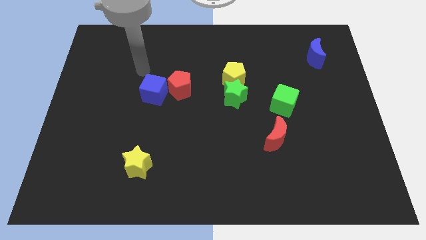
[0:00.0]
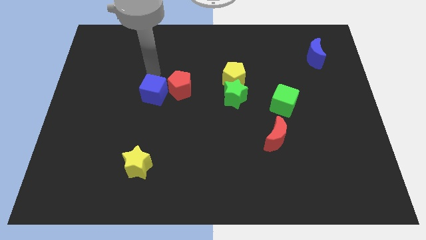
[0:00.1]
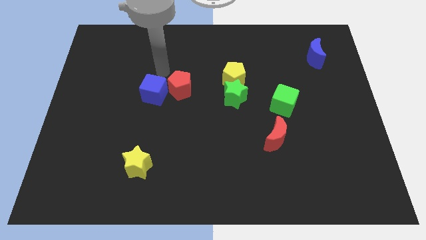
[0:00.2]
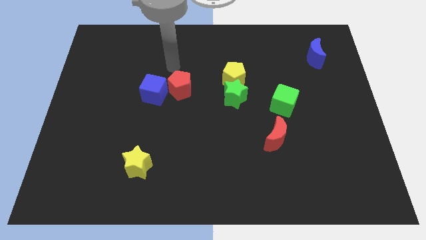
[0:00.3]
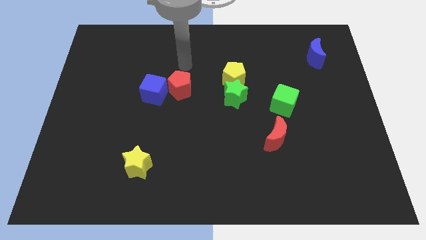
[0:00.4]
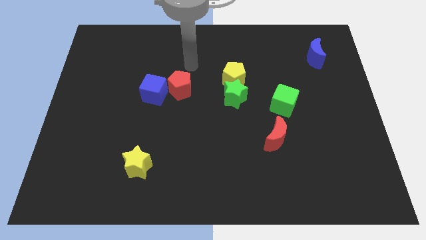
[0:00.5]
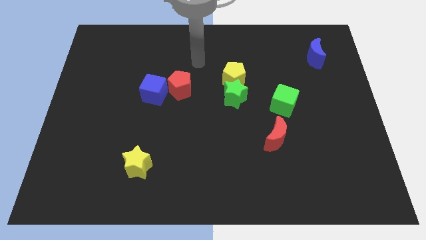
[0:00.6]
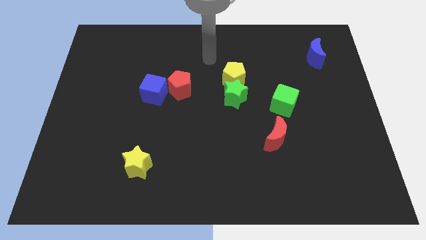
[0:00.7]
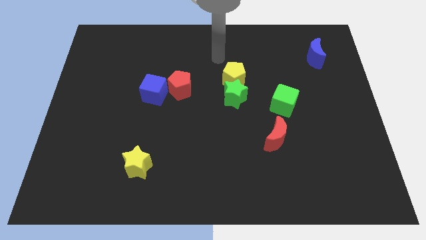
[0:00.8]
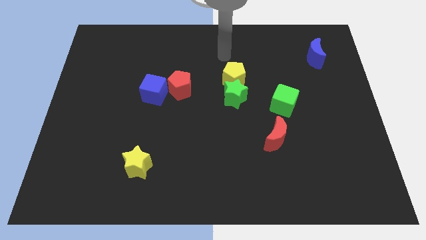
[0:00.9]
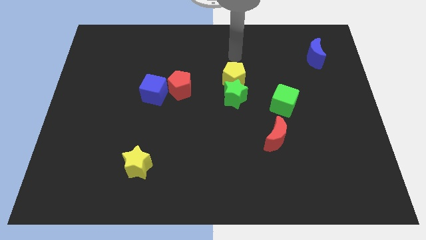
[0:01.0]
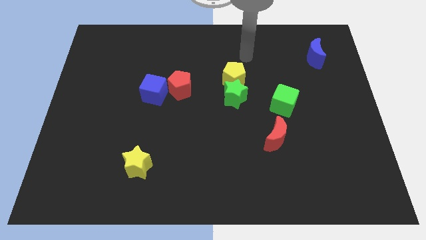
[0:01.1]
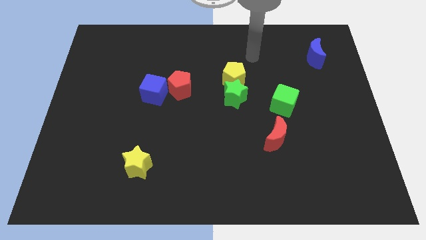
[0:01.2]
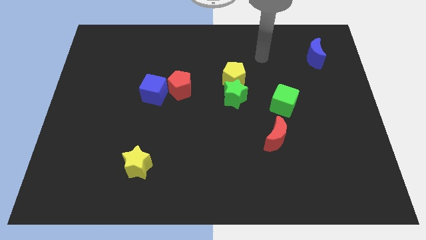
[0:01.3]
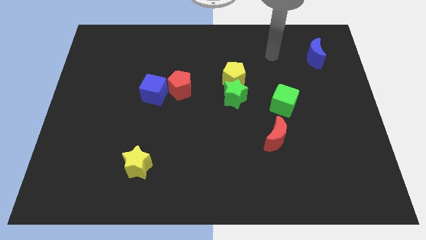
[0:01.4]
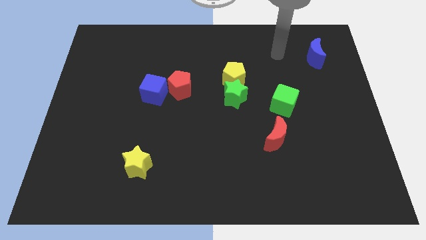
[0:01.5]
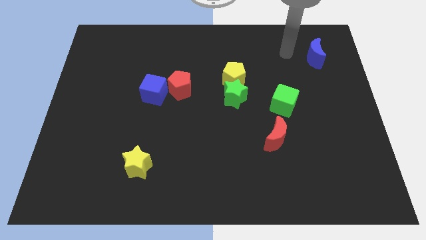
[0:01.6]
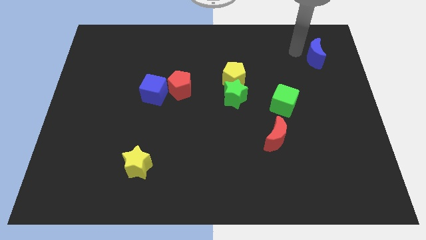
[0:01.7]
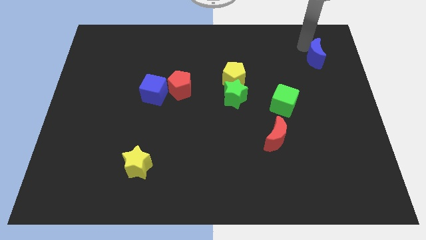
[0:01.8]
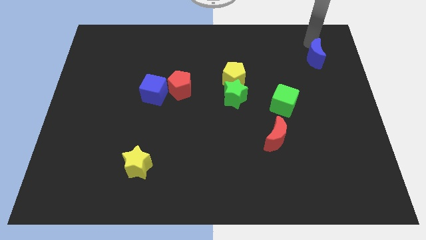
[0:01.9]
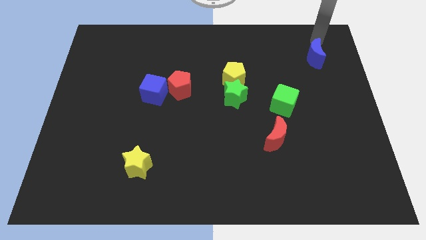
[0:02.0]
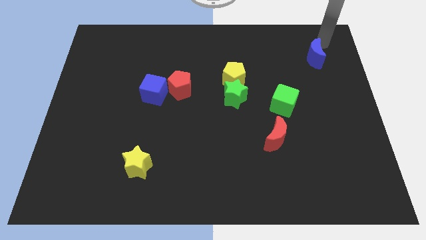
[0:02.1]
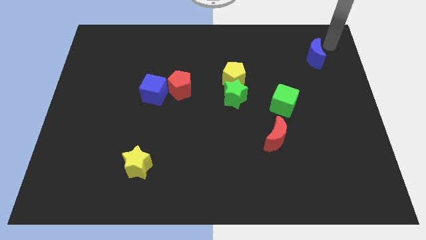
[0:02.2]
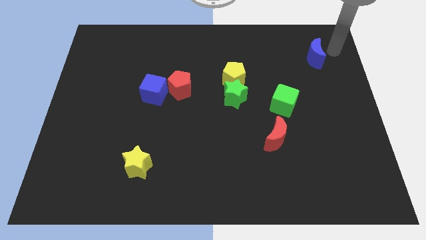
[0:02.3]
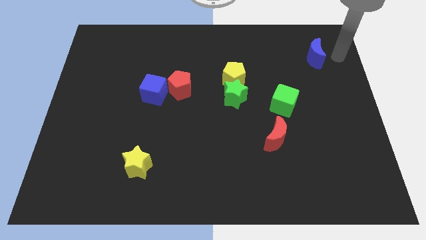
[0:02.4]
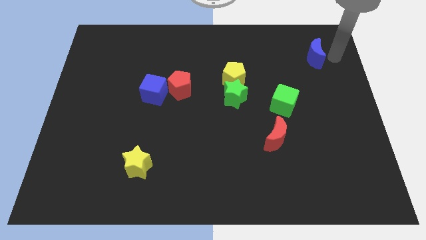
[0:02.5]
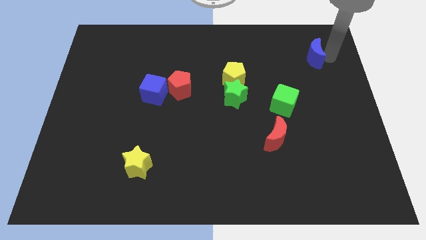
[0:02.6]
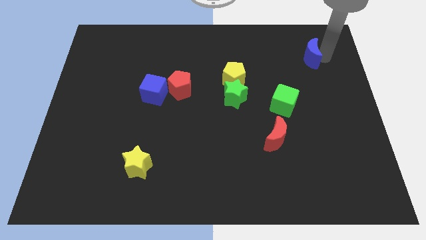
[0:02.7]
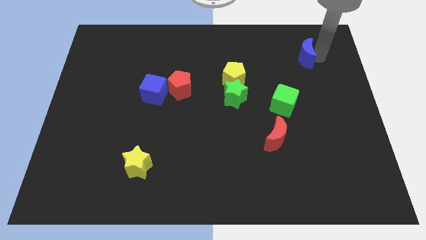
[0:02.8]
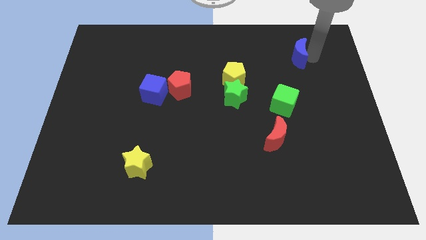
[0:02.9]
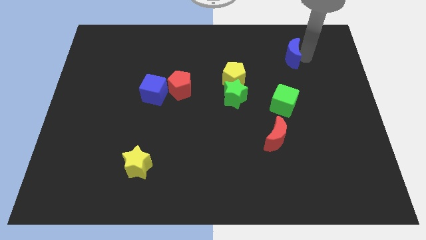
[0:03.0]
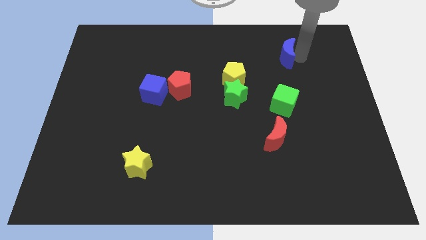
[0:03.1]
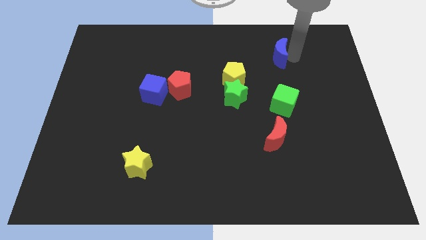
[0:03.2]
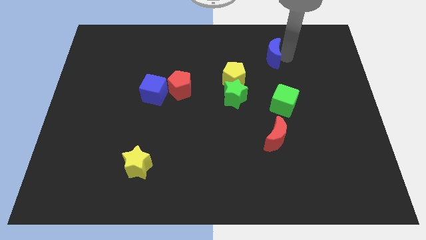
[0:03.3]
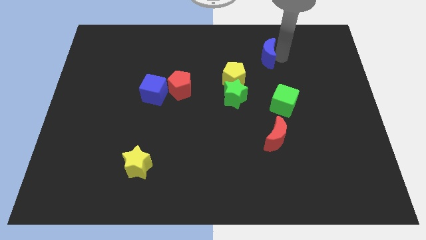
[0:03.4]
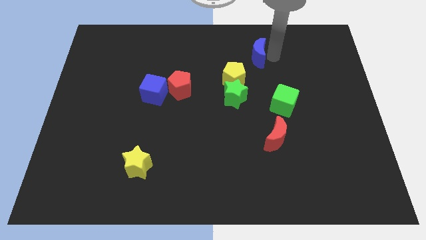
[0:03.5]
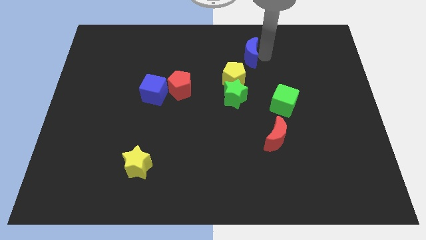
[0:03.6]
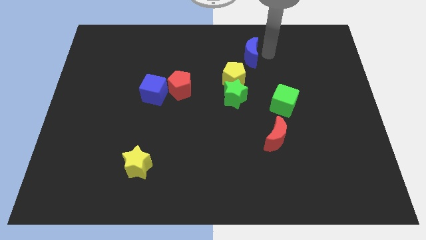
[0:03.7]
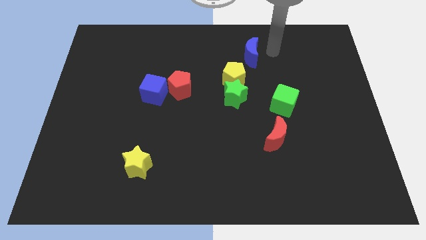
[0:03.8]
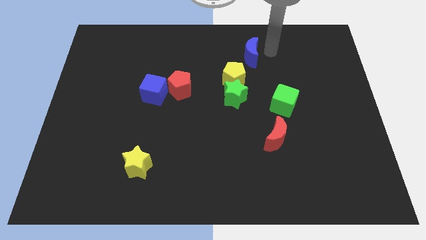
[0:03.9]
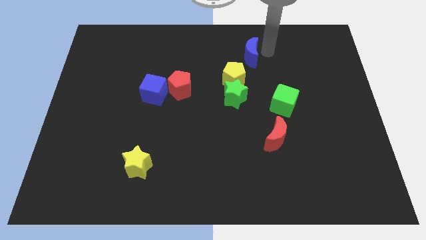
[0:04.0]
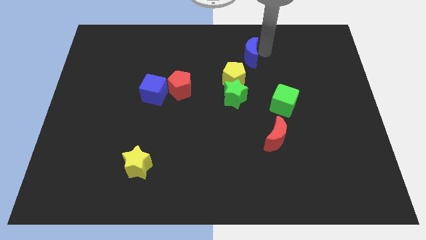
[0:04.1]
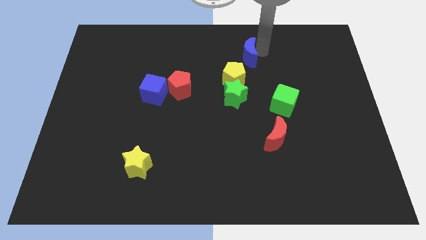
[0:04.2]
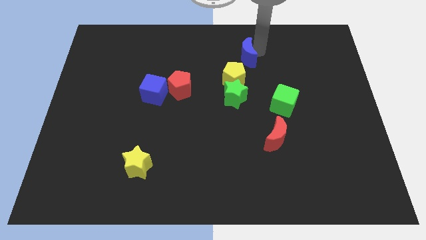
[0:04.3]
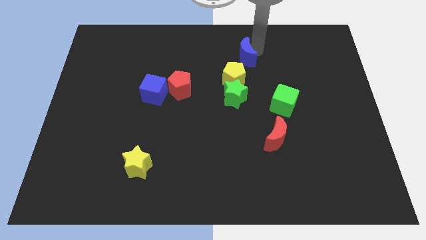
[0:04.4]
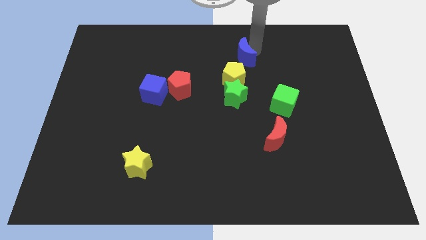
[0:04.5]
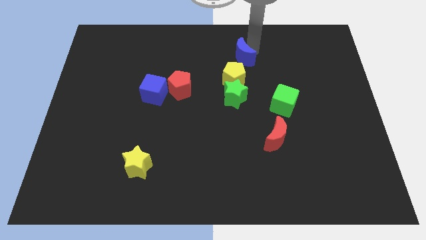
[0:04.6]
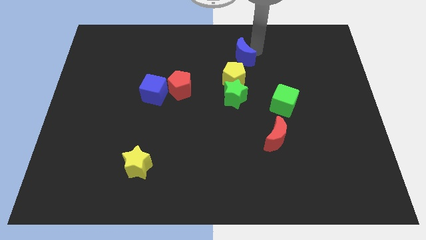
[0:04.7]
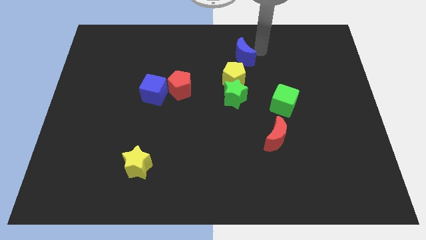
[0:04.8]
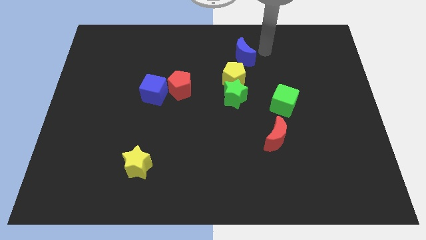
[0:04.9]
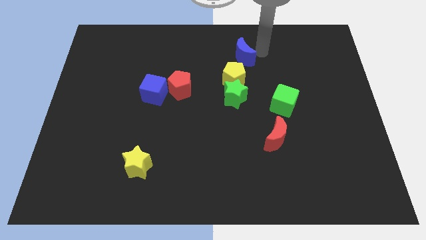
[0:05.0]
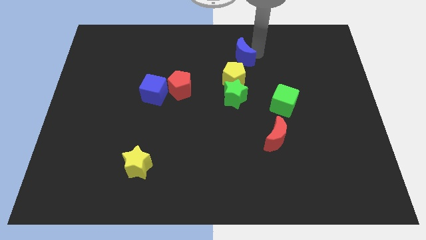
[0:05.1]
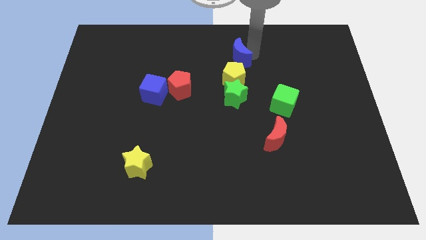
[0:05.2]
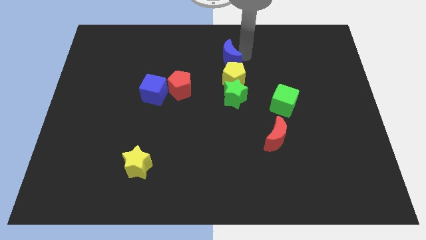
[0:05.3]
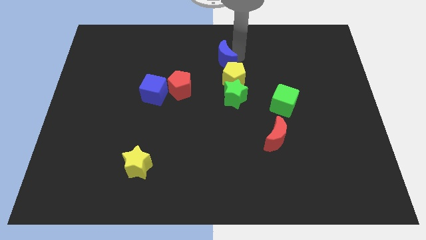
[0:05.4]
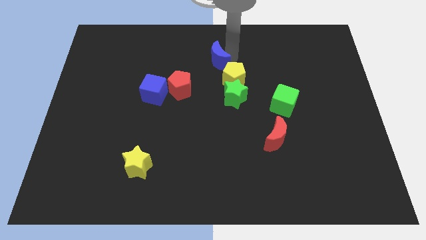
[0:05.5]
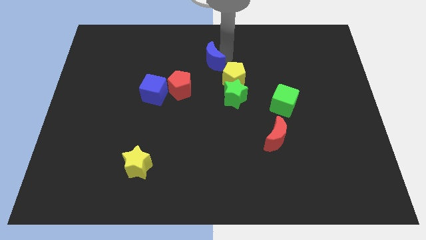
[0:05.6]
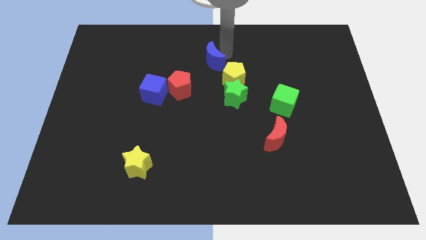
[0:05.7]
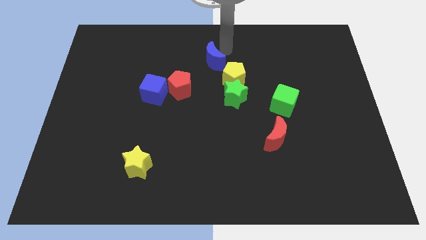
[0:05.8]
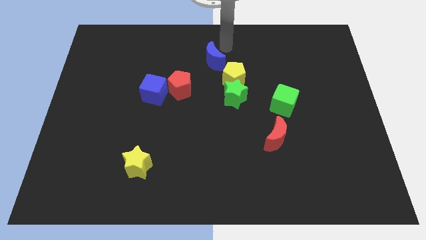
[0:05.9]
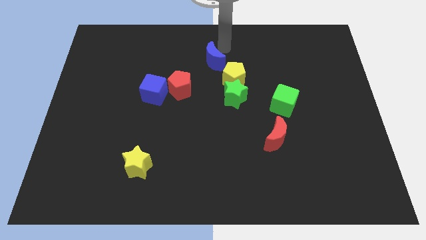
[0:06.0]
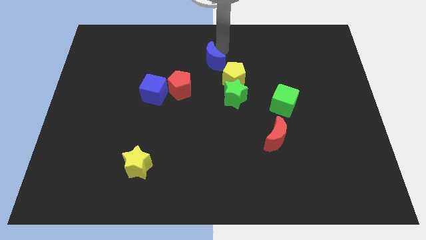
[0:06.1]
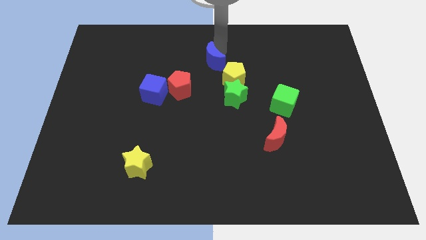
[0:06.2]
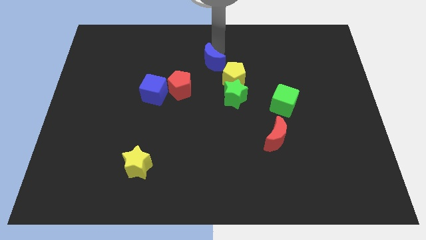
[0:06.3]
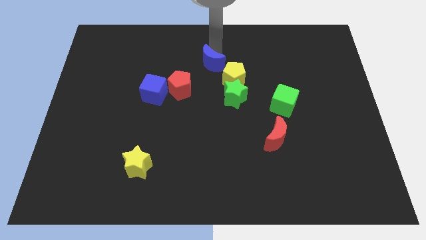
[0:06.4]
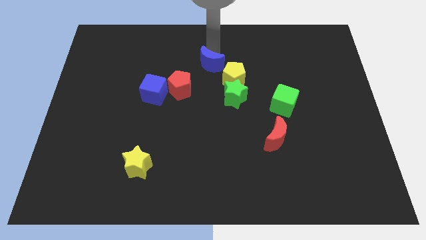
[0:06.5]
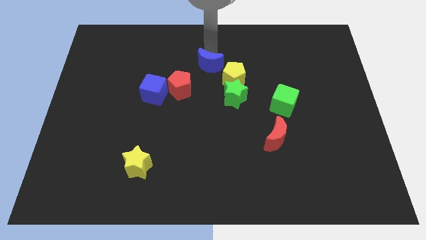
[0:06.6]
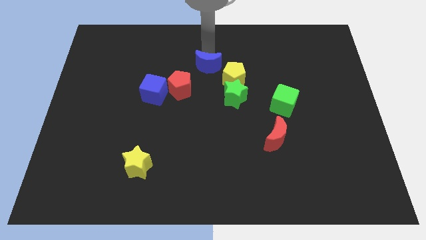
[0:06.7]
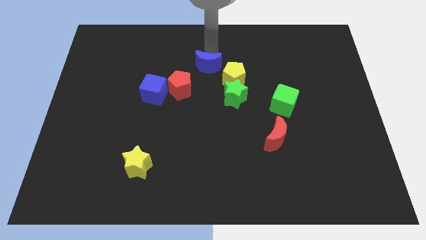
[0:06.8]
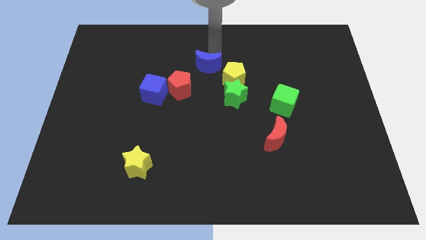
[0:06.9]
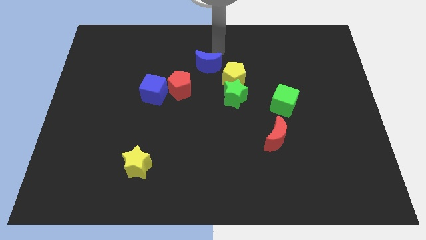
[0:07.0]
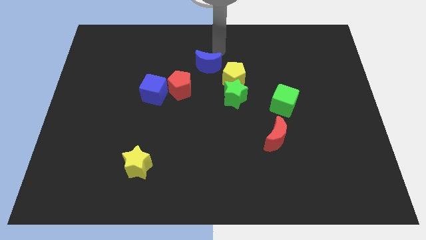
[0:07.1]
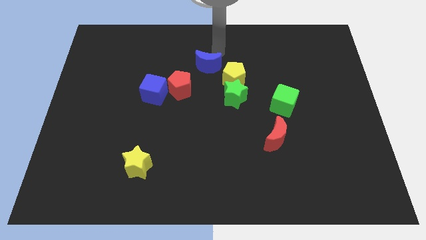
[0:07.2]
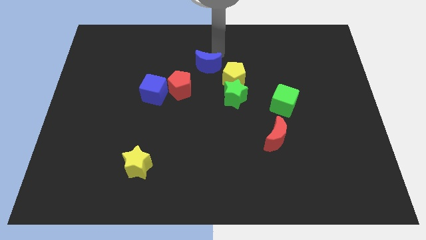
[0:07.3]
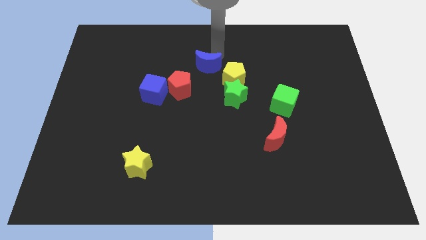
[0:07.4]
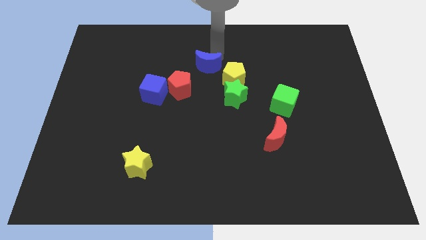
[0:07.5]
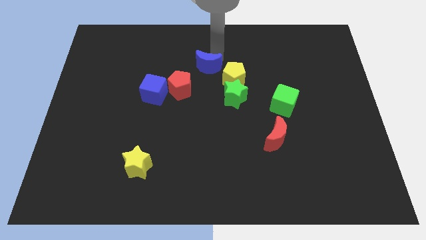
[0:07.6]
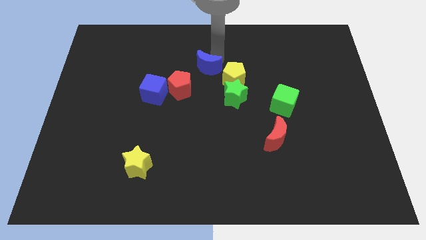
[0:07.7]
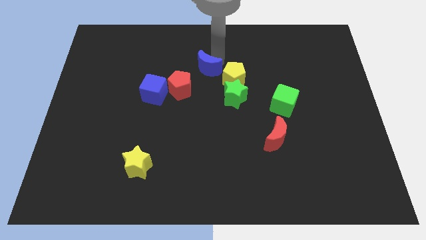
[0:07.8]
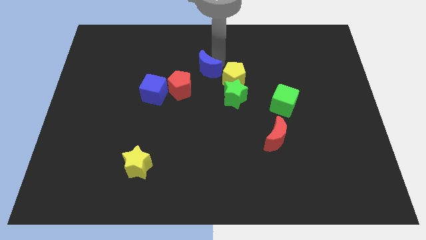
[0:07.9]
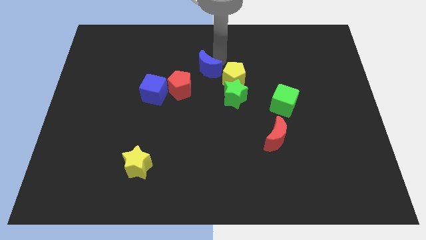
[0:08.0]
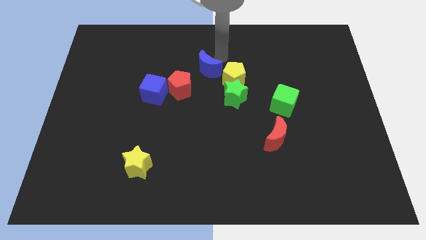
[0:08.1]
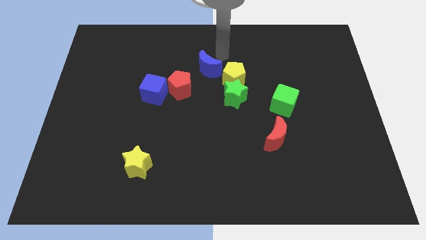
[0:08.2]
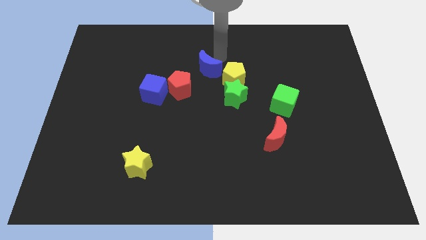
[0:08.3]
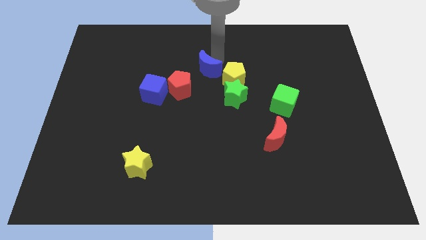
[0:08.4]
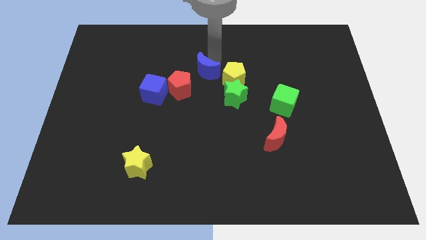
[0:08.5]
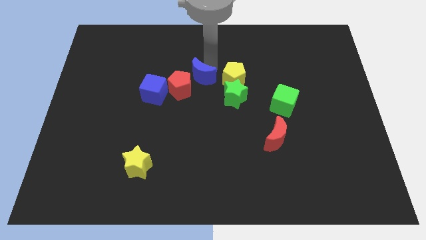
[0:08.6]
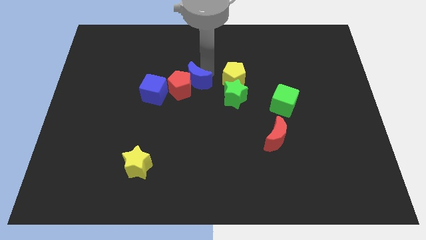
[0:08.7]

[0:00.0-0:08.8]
put the blue moon next to the red pentagon
